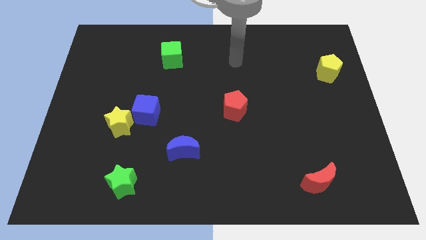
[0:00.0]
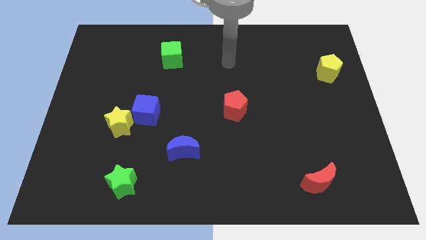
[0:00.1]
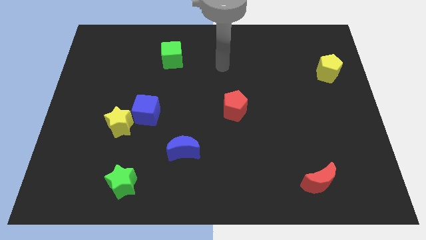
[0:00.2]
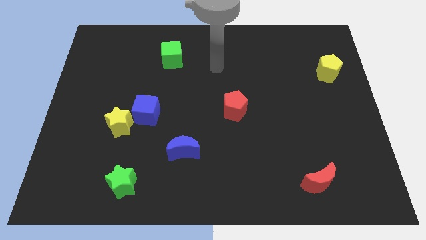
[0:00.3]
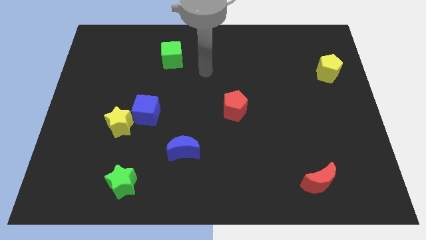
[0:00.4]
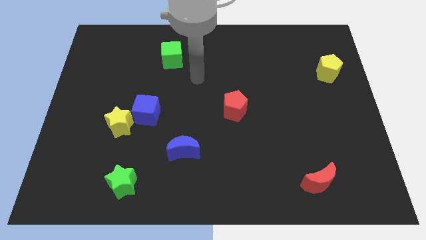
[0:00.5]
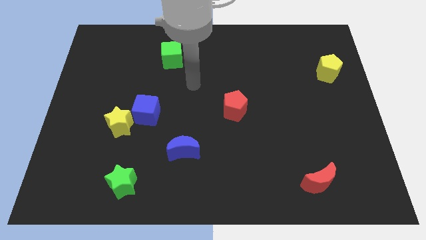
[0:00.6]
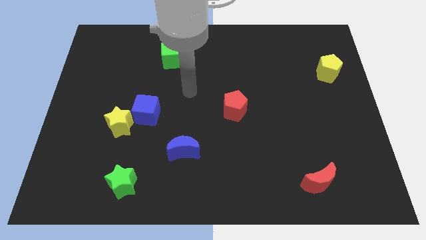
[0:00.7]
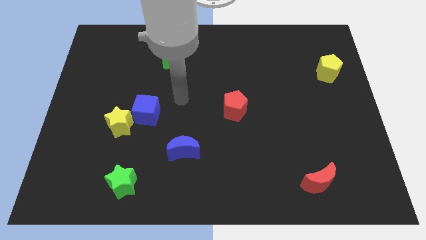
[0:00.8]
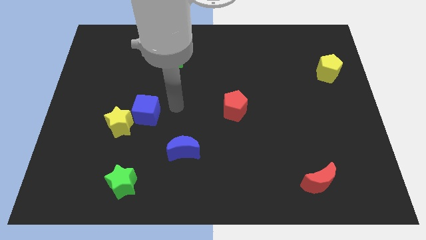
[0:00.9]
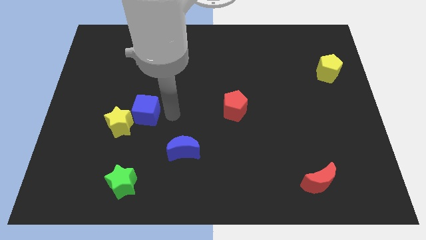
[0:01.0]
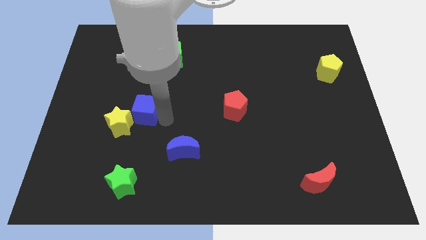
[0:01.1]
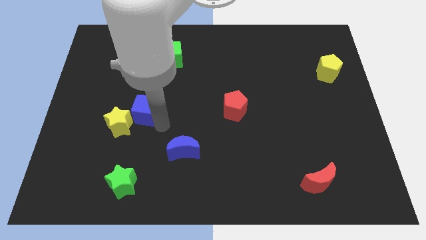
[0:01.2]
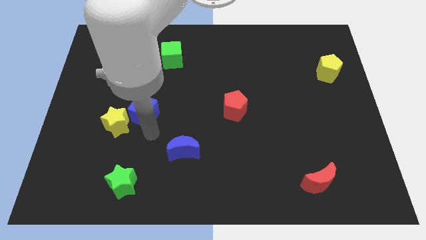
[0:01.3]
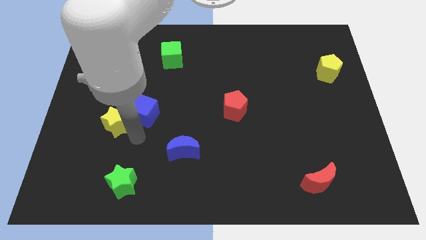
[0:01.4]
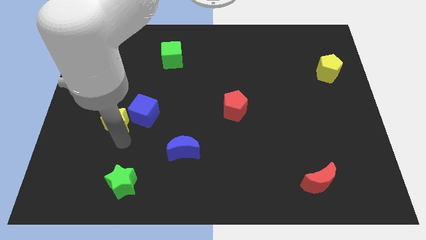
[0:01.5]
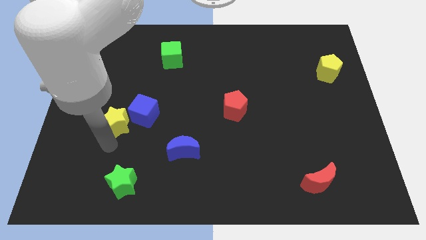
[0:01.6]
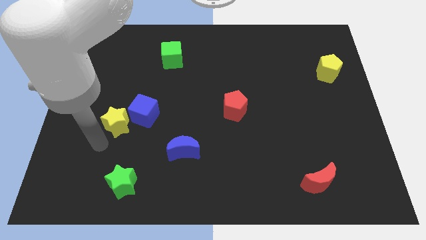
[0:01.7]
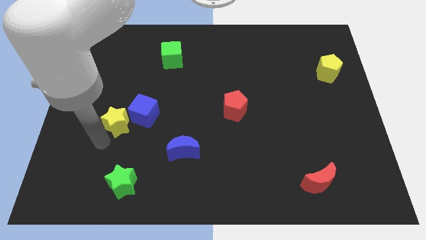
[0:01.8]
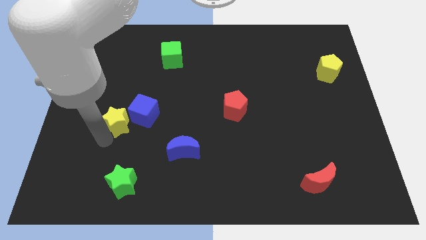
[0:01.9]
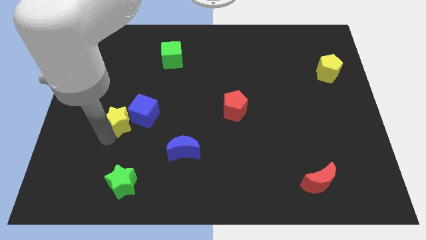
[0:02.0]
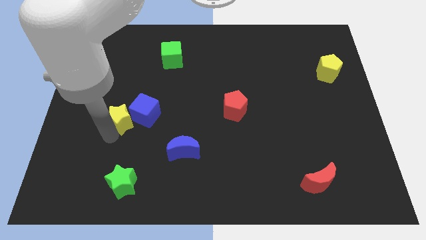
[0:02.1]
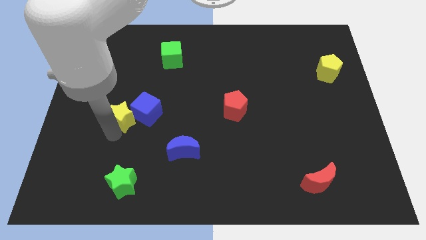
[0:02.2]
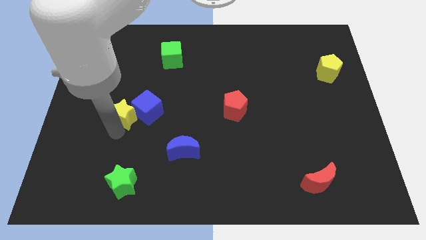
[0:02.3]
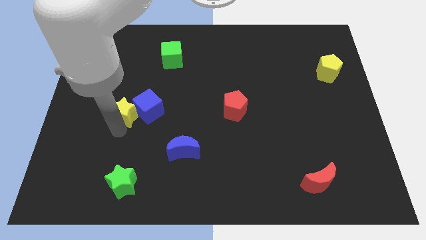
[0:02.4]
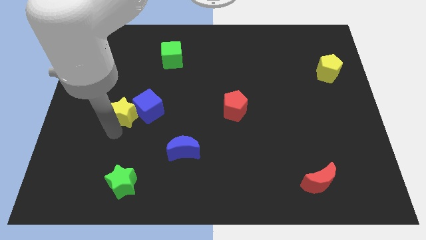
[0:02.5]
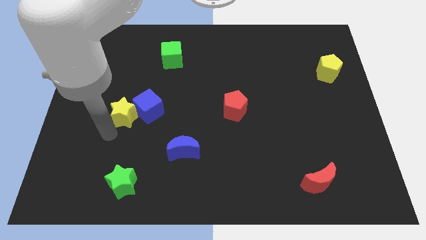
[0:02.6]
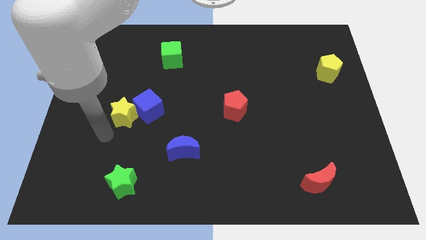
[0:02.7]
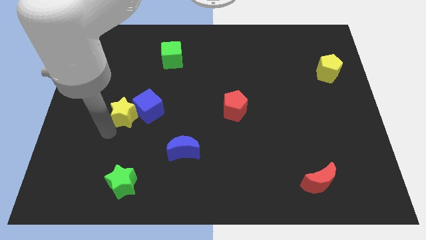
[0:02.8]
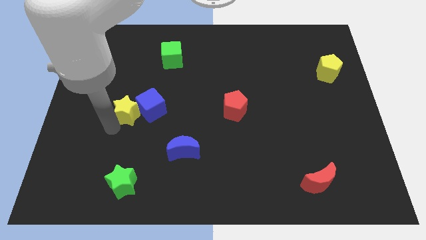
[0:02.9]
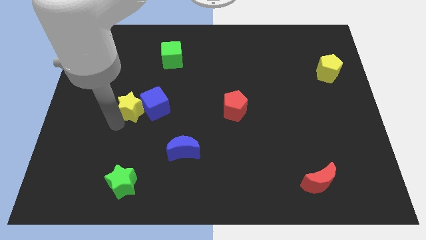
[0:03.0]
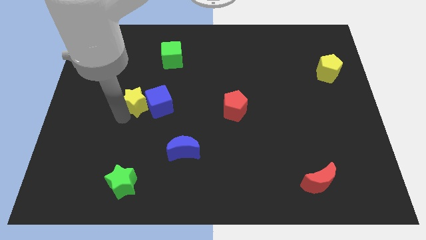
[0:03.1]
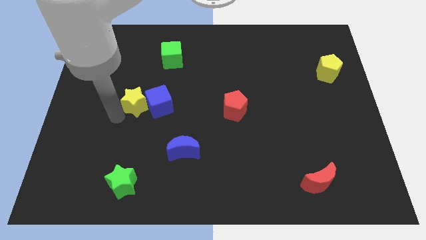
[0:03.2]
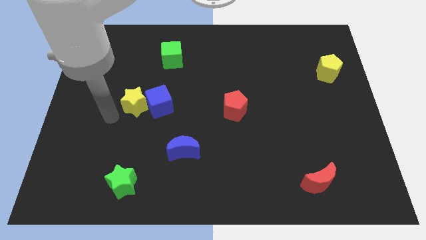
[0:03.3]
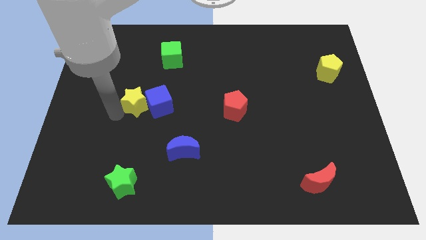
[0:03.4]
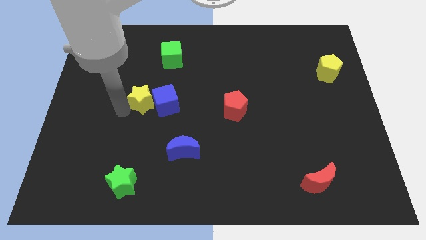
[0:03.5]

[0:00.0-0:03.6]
slightly push the yellow star diagonally up and right

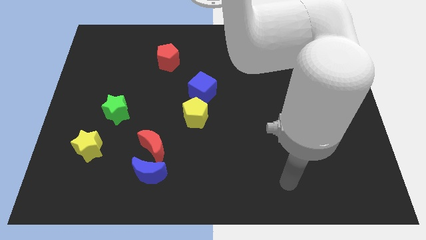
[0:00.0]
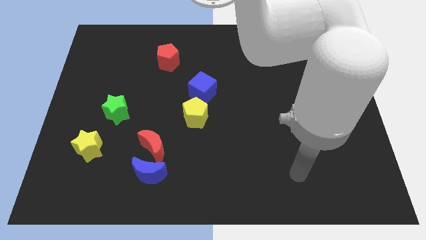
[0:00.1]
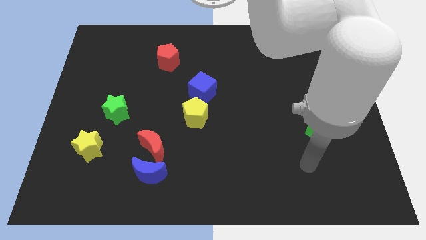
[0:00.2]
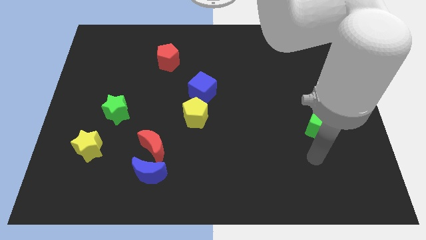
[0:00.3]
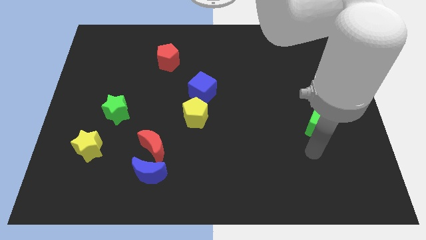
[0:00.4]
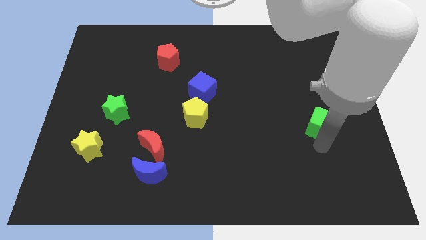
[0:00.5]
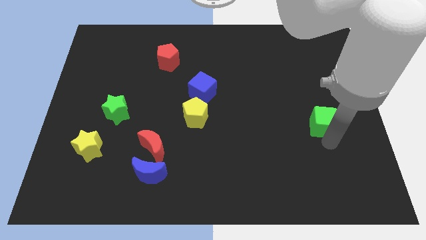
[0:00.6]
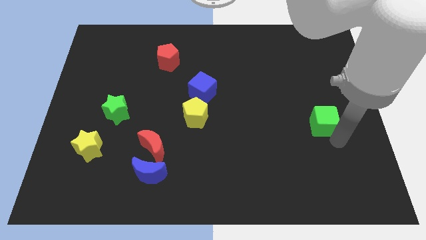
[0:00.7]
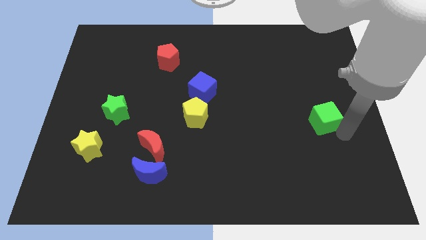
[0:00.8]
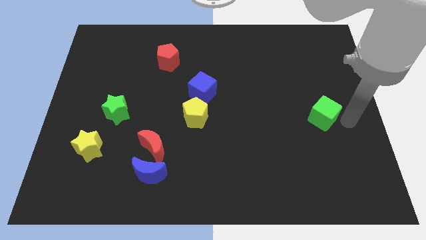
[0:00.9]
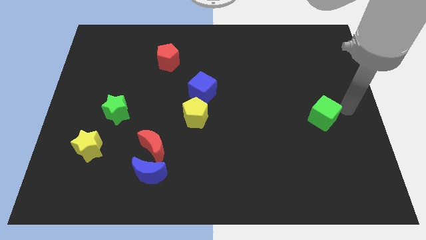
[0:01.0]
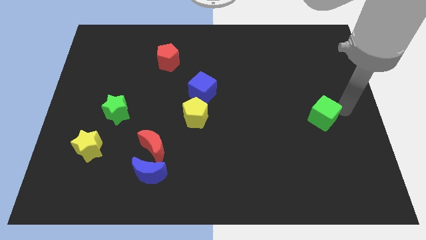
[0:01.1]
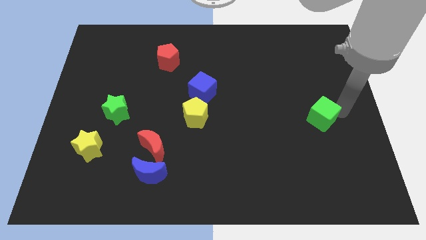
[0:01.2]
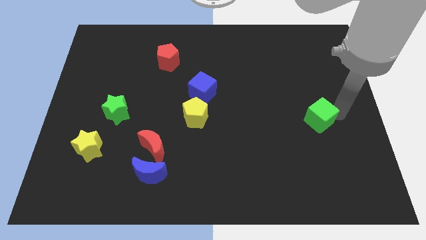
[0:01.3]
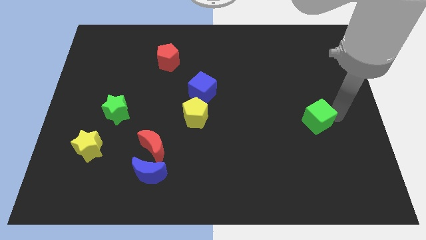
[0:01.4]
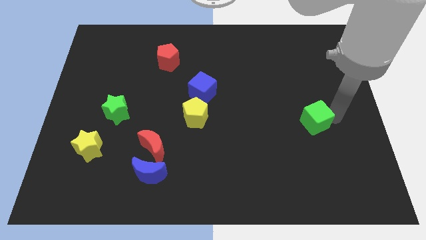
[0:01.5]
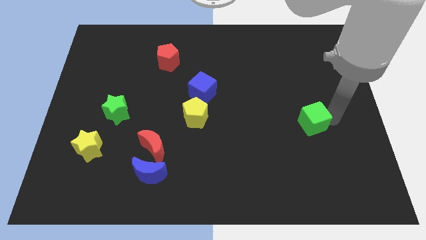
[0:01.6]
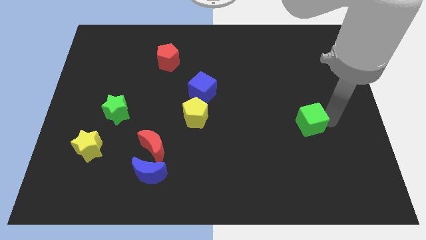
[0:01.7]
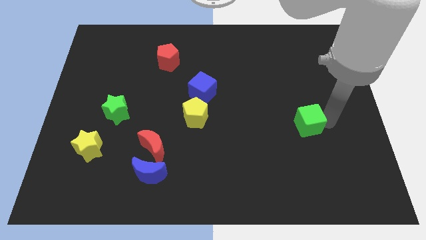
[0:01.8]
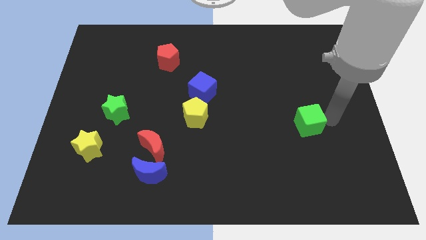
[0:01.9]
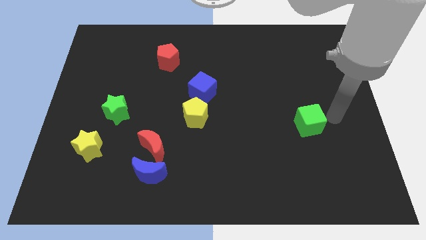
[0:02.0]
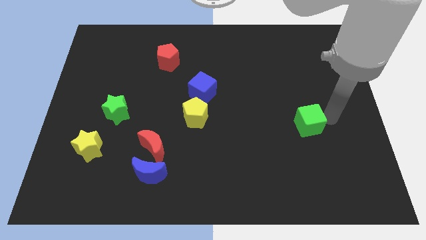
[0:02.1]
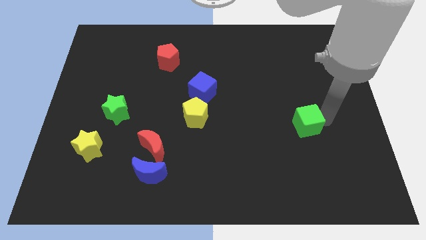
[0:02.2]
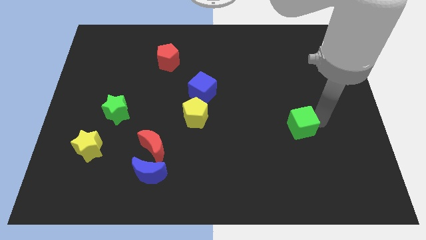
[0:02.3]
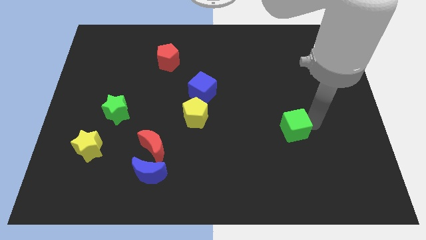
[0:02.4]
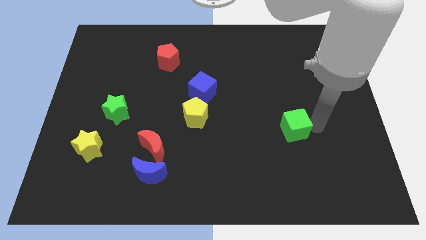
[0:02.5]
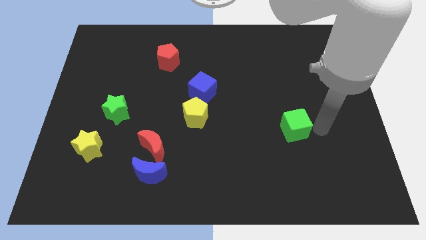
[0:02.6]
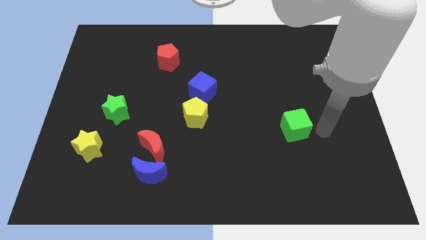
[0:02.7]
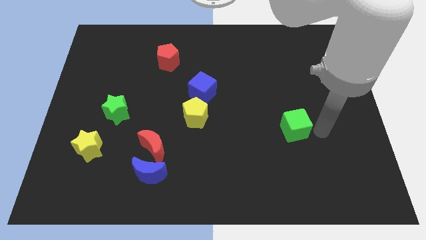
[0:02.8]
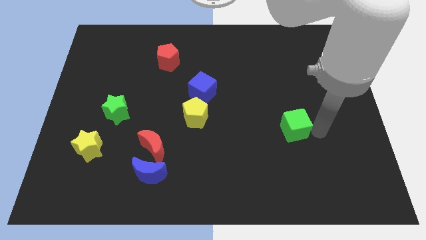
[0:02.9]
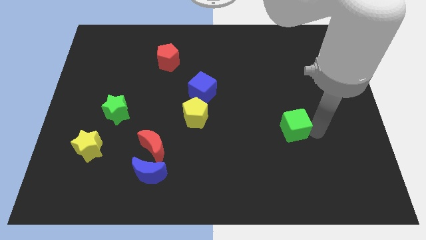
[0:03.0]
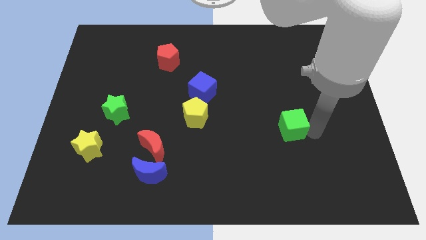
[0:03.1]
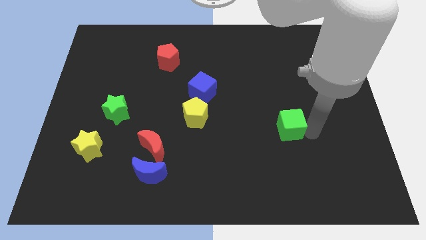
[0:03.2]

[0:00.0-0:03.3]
push the green cube left a little bit

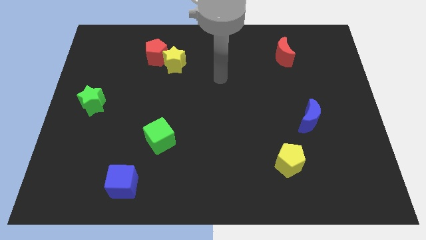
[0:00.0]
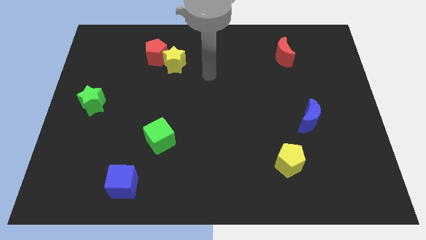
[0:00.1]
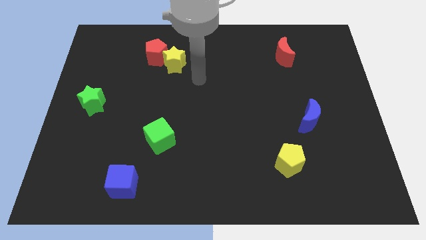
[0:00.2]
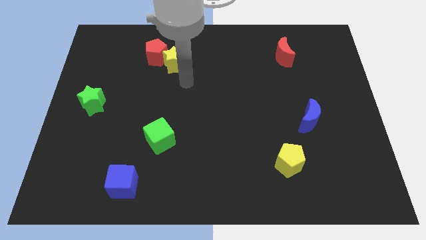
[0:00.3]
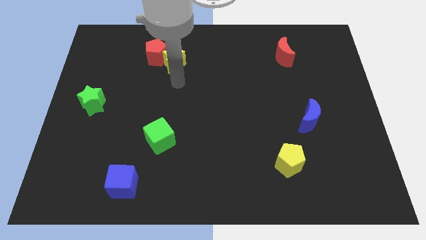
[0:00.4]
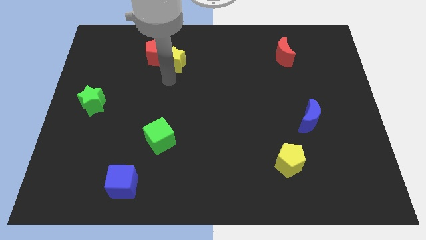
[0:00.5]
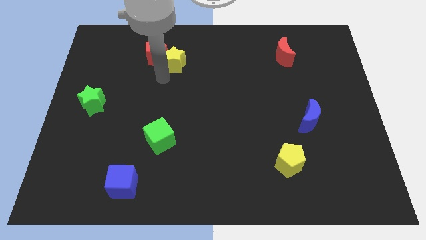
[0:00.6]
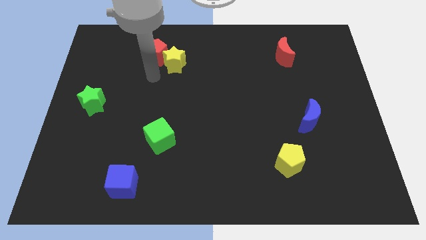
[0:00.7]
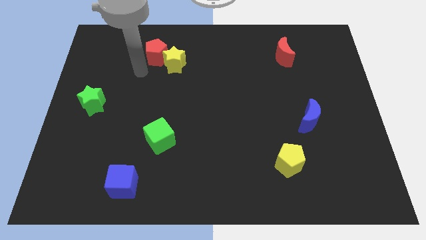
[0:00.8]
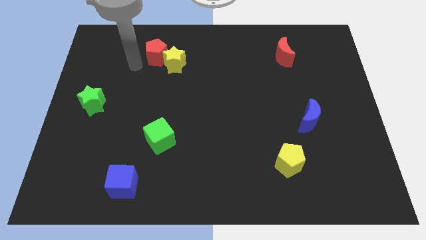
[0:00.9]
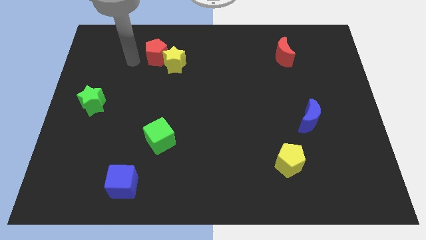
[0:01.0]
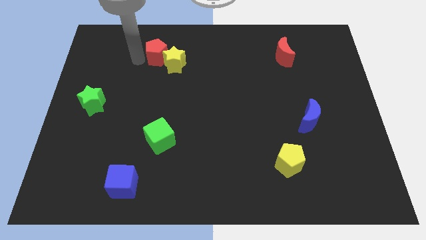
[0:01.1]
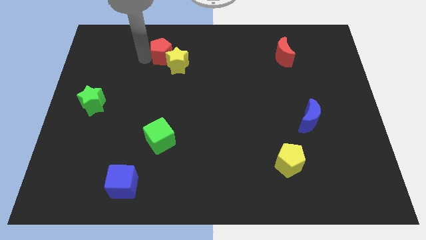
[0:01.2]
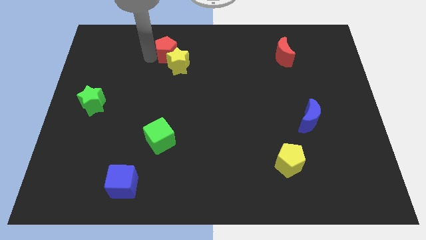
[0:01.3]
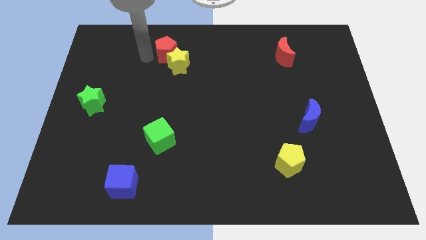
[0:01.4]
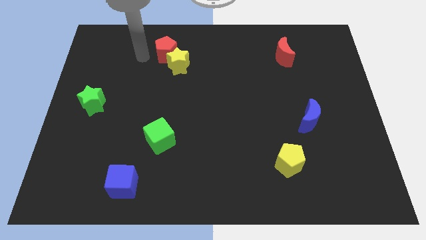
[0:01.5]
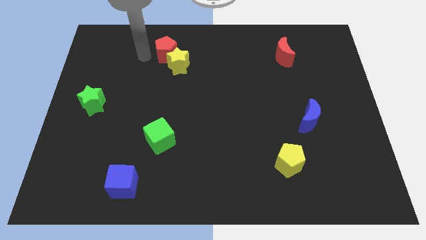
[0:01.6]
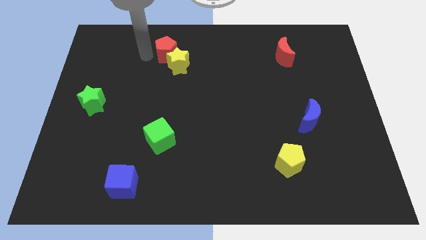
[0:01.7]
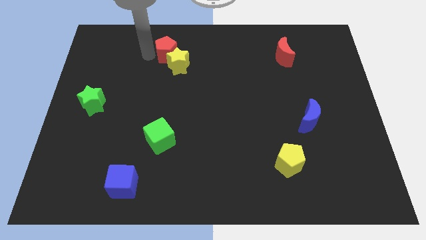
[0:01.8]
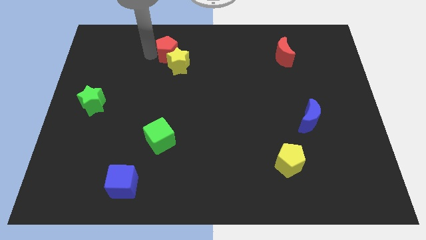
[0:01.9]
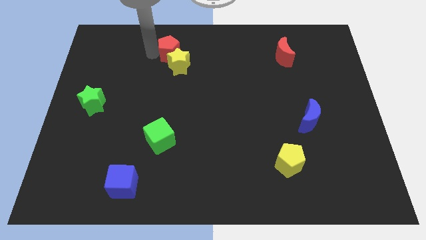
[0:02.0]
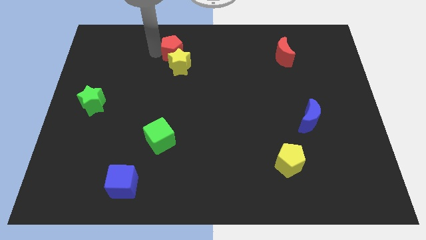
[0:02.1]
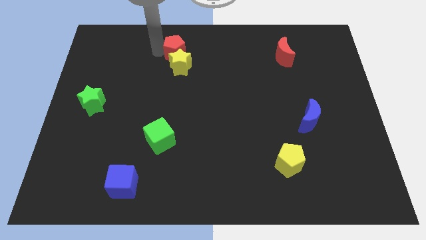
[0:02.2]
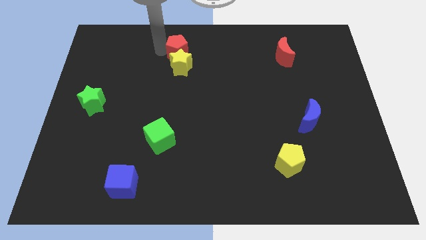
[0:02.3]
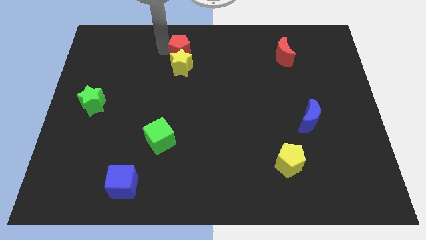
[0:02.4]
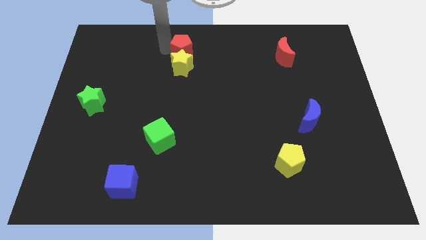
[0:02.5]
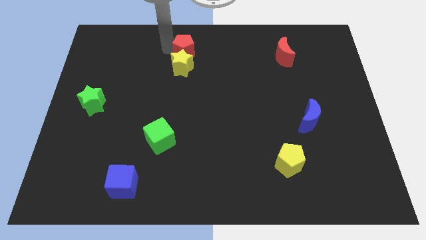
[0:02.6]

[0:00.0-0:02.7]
push the red pentagon to the right a bit
